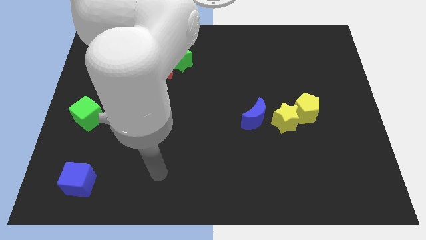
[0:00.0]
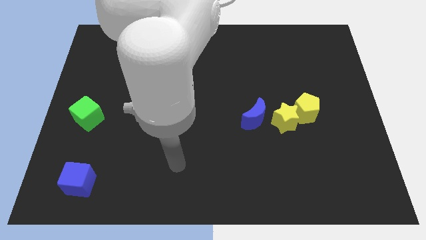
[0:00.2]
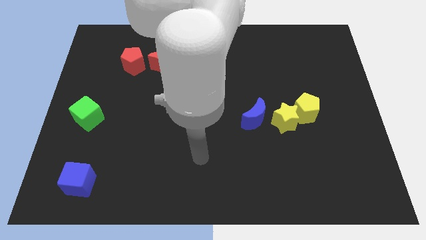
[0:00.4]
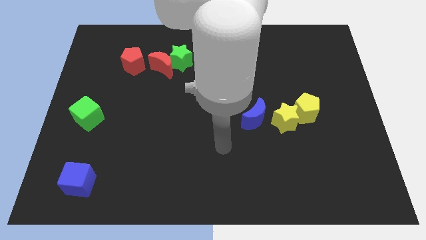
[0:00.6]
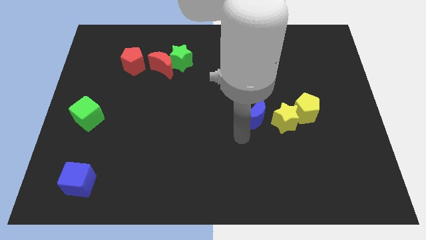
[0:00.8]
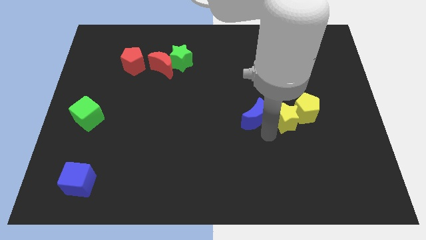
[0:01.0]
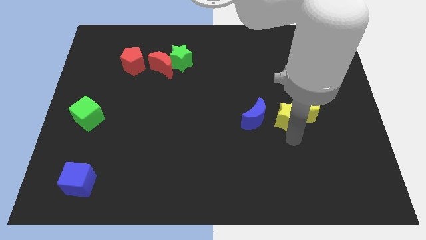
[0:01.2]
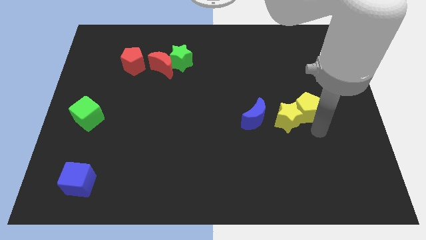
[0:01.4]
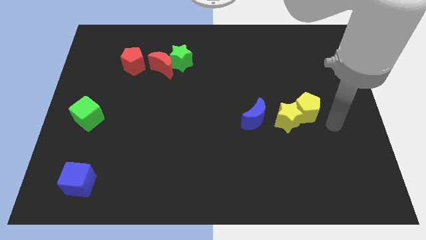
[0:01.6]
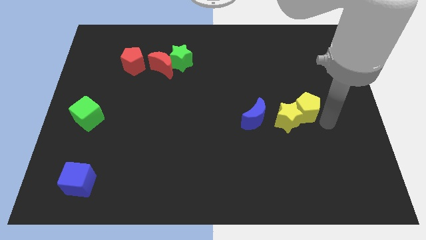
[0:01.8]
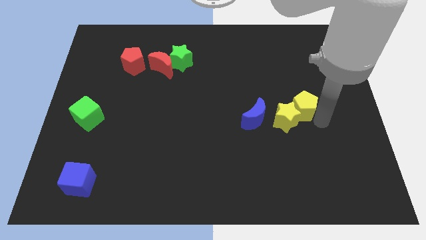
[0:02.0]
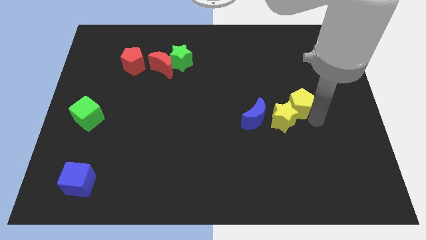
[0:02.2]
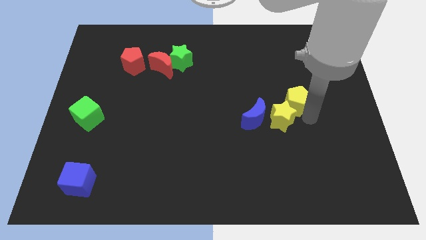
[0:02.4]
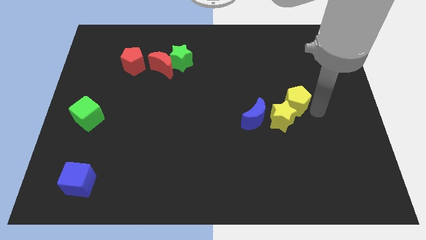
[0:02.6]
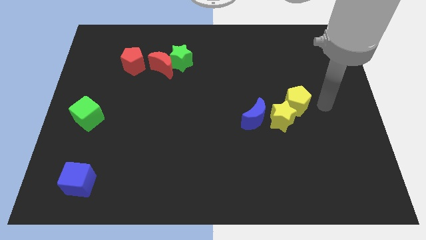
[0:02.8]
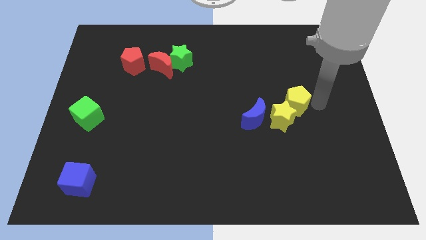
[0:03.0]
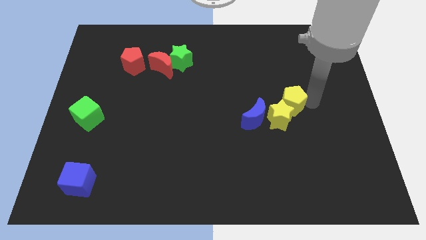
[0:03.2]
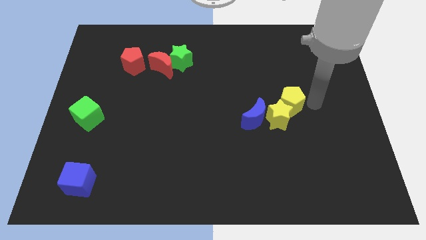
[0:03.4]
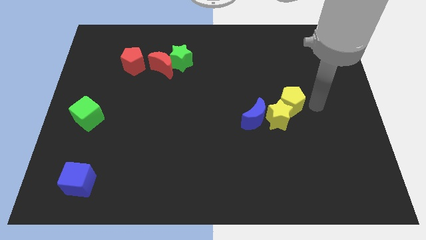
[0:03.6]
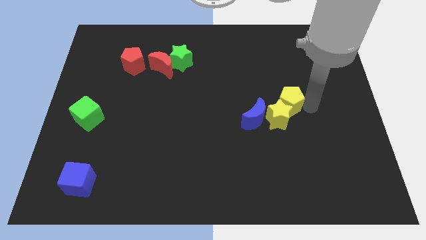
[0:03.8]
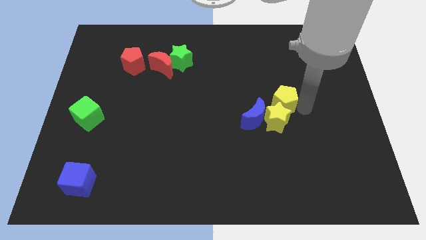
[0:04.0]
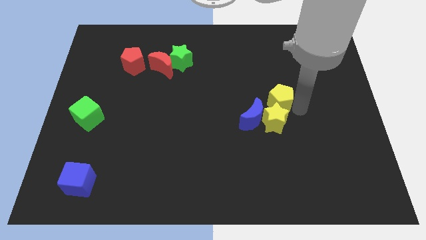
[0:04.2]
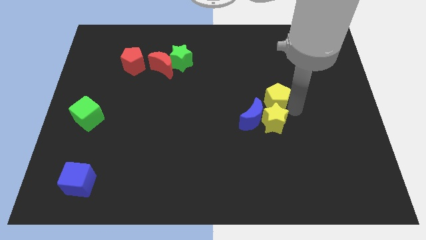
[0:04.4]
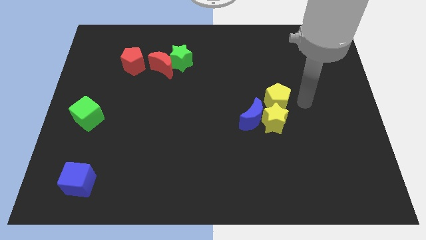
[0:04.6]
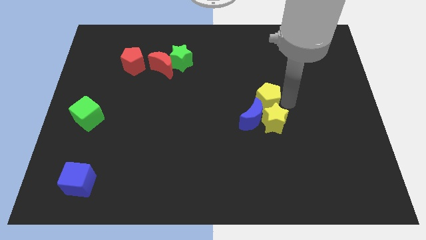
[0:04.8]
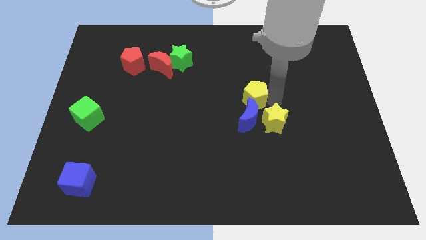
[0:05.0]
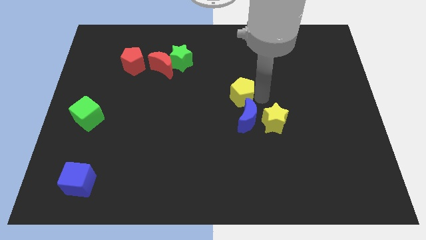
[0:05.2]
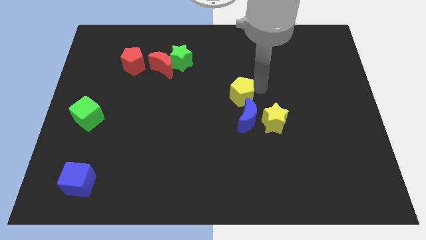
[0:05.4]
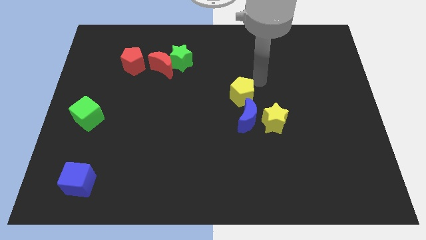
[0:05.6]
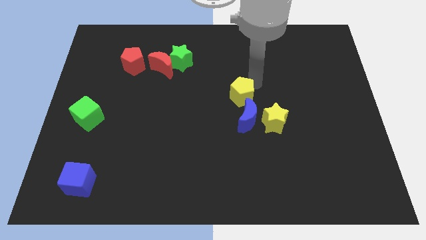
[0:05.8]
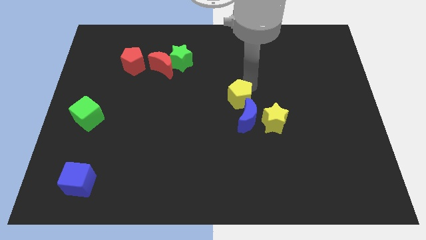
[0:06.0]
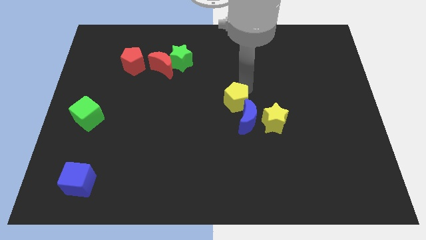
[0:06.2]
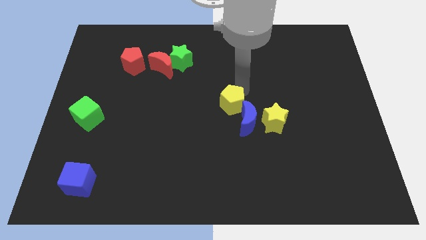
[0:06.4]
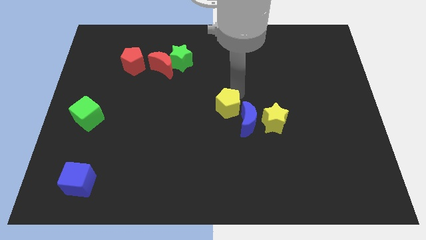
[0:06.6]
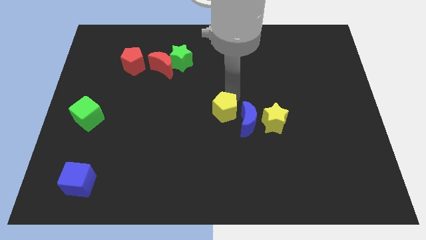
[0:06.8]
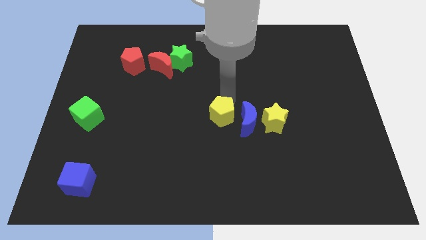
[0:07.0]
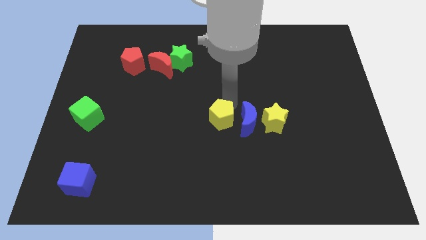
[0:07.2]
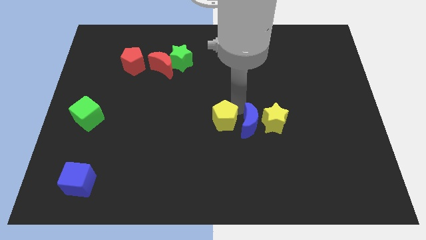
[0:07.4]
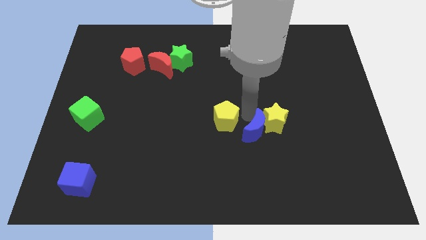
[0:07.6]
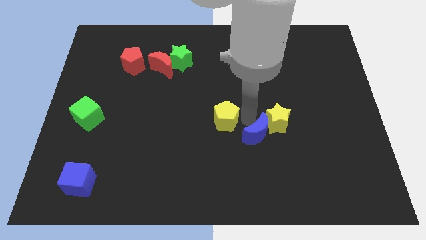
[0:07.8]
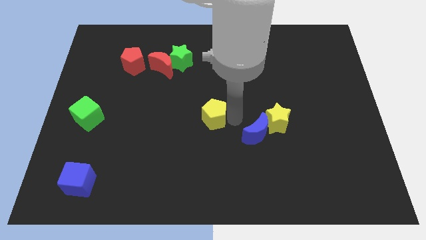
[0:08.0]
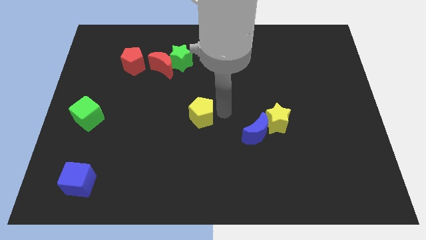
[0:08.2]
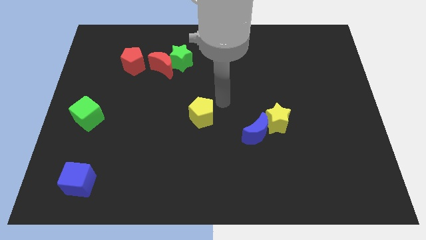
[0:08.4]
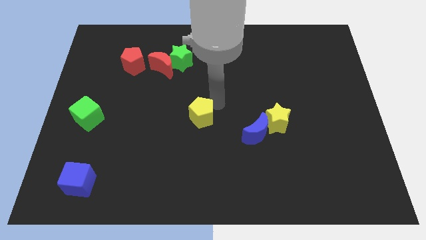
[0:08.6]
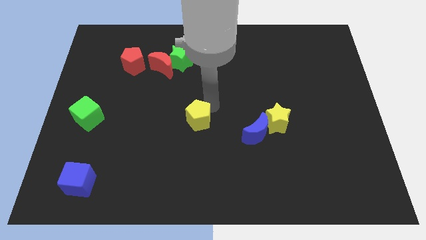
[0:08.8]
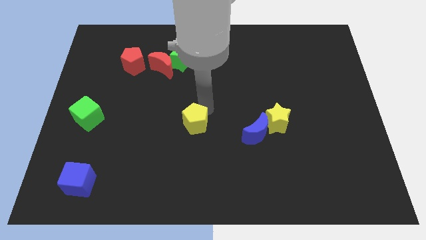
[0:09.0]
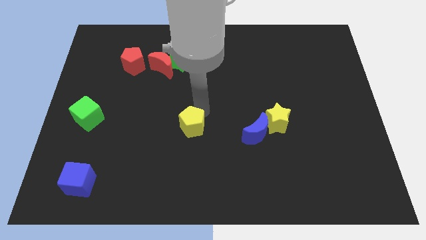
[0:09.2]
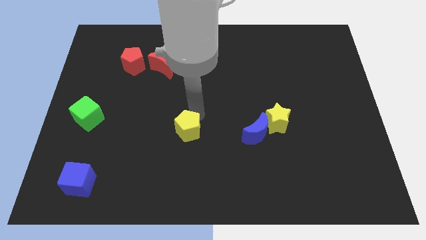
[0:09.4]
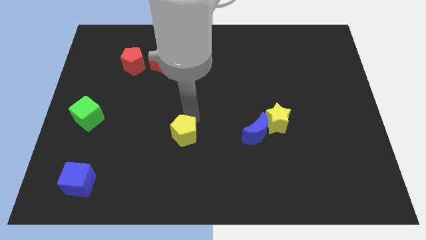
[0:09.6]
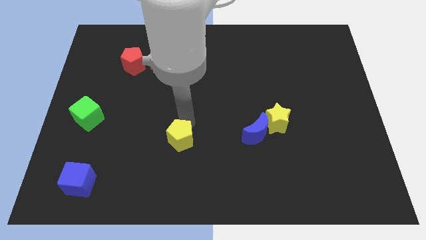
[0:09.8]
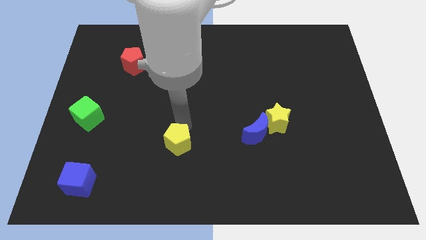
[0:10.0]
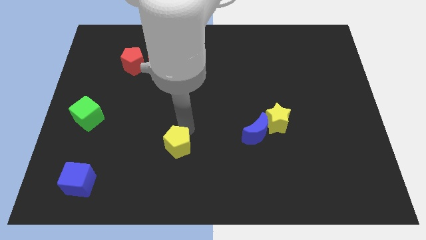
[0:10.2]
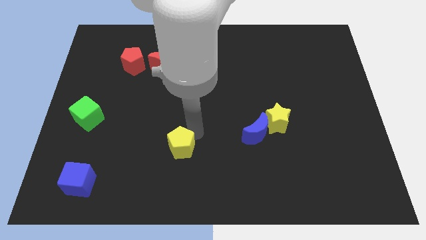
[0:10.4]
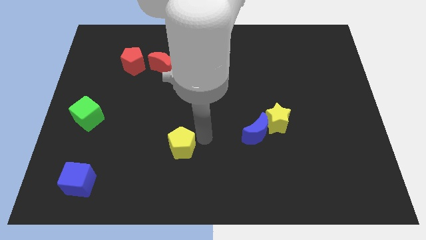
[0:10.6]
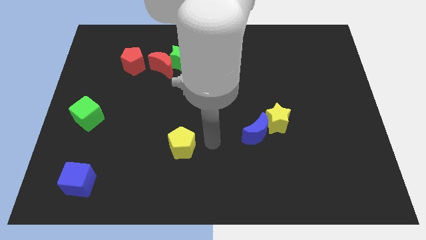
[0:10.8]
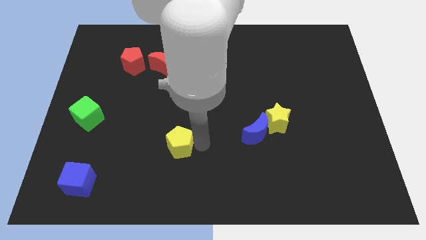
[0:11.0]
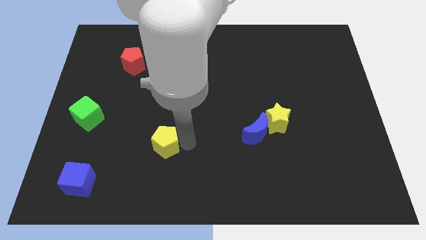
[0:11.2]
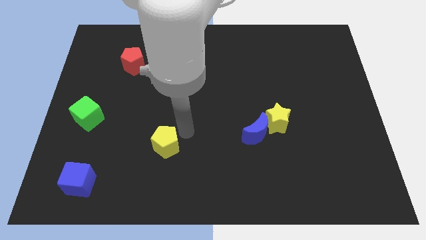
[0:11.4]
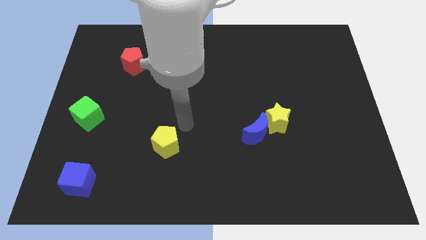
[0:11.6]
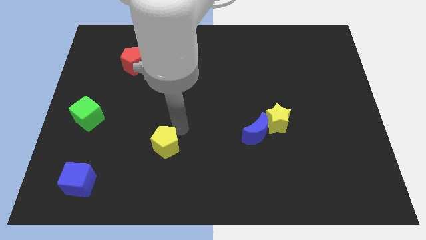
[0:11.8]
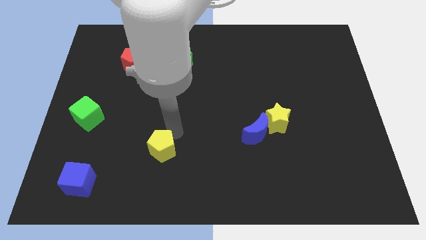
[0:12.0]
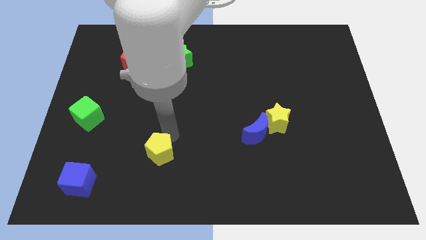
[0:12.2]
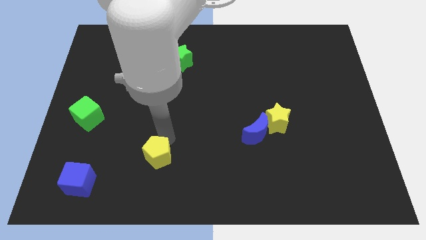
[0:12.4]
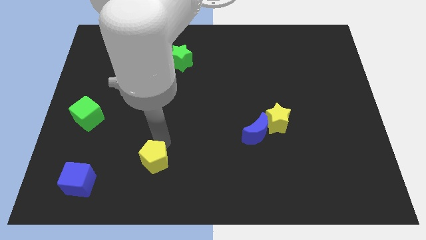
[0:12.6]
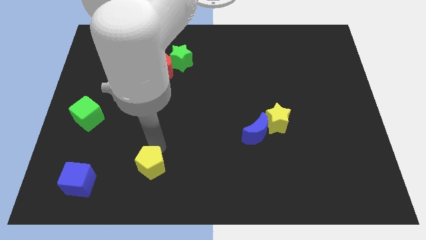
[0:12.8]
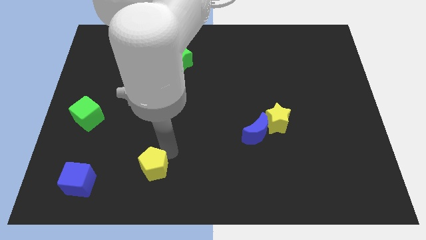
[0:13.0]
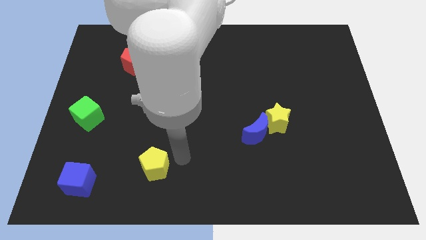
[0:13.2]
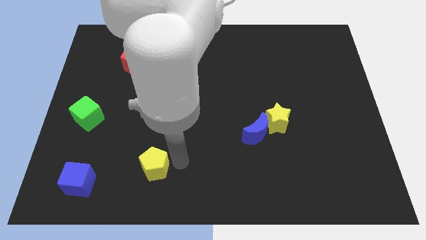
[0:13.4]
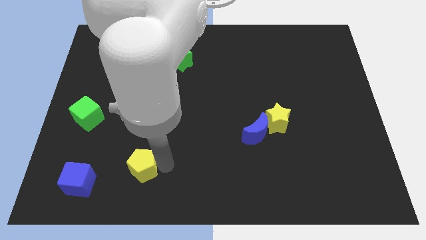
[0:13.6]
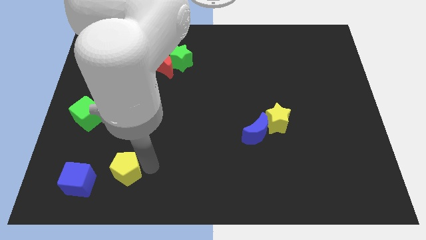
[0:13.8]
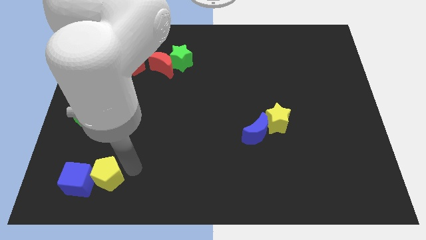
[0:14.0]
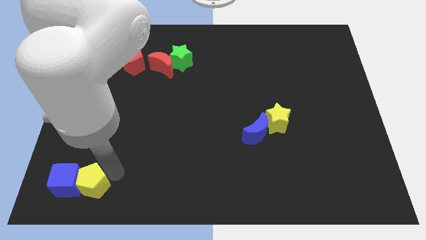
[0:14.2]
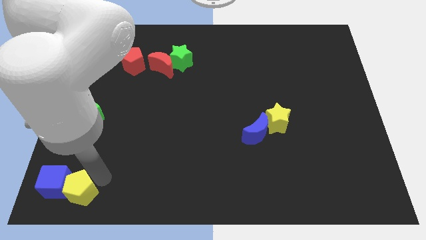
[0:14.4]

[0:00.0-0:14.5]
put the yellow pentagon to the bottom left of the board
